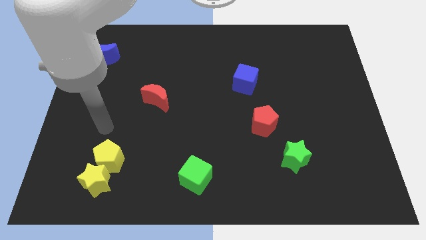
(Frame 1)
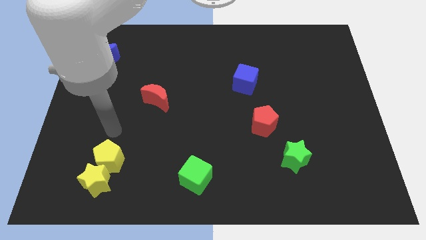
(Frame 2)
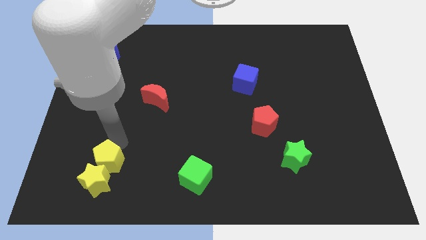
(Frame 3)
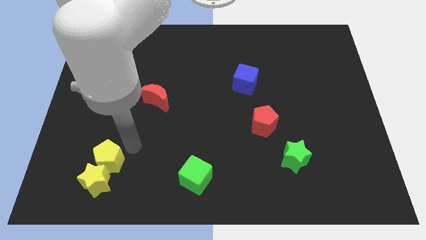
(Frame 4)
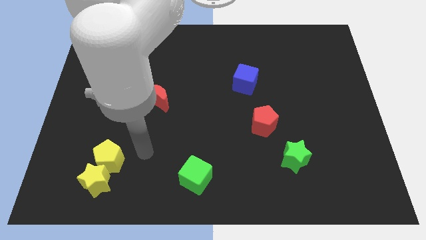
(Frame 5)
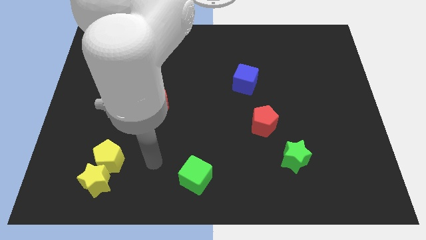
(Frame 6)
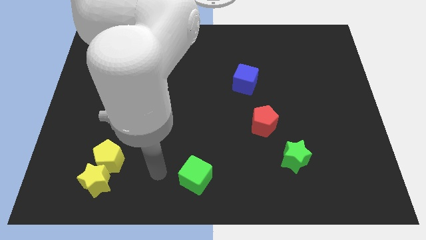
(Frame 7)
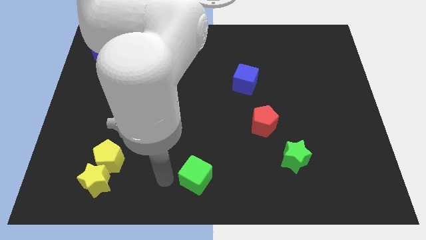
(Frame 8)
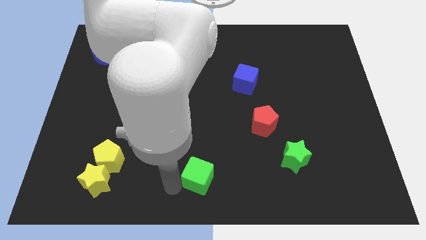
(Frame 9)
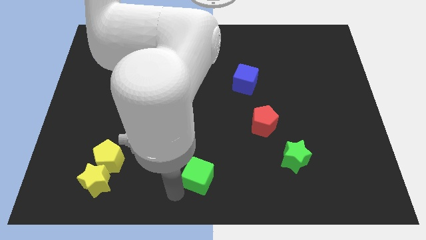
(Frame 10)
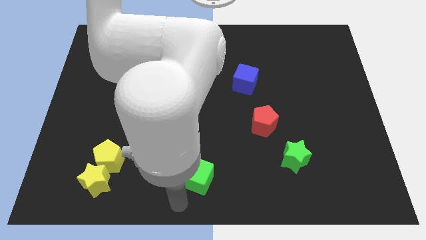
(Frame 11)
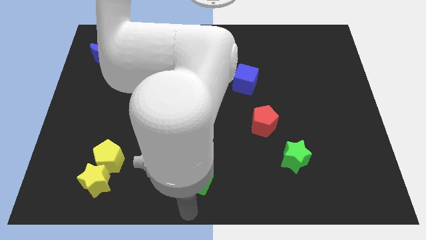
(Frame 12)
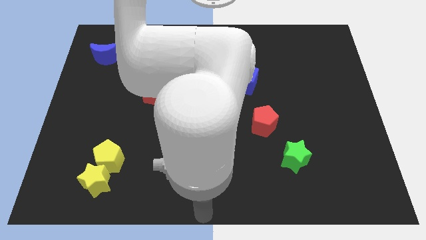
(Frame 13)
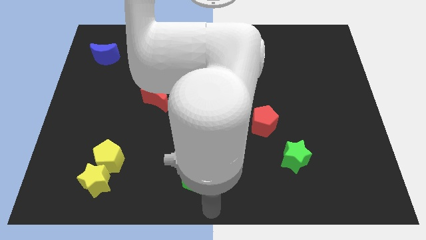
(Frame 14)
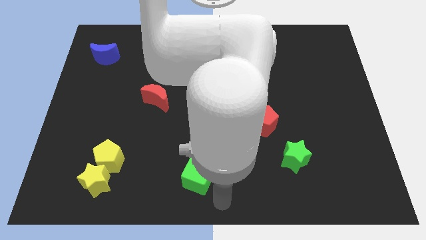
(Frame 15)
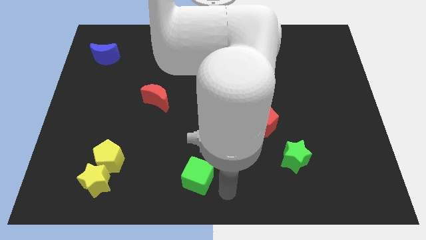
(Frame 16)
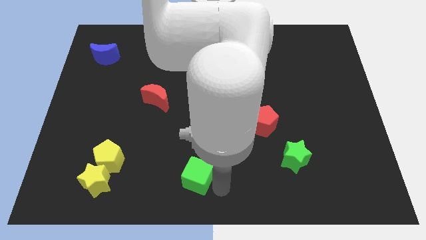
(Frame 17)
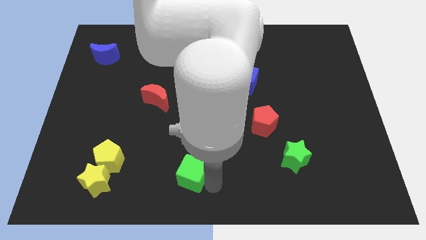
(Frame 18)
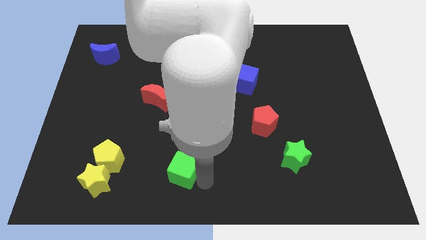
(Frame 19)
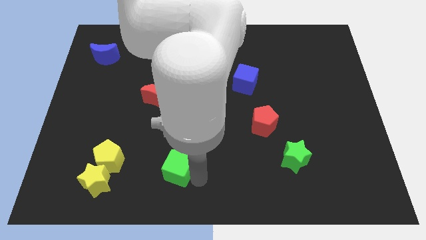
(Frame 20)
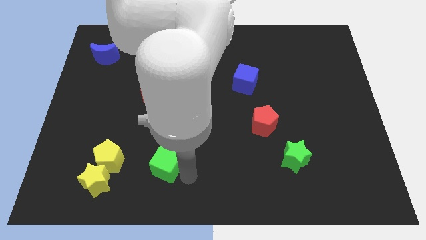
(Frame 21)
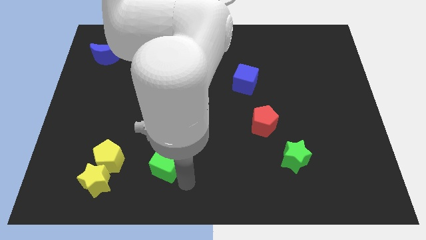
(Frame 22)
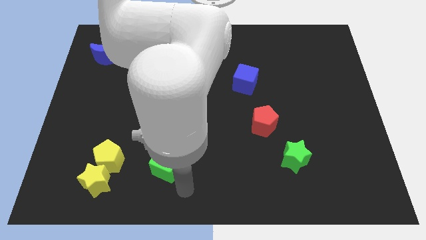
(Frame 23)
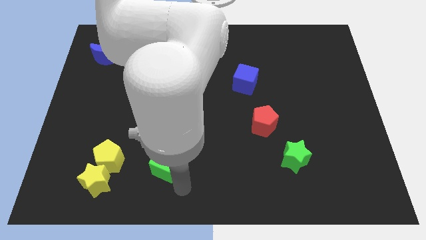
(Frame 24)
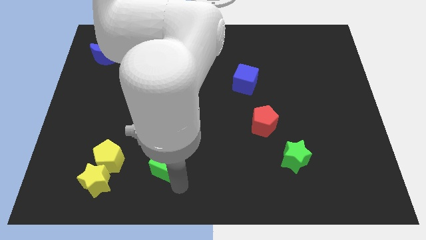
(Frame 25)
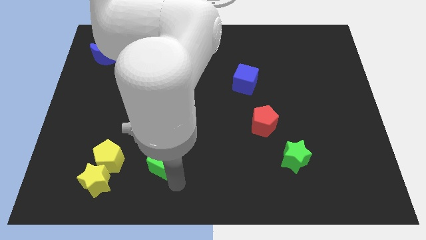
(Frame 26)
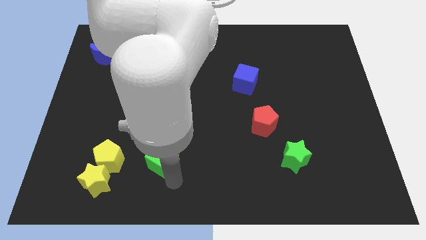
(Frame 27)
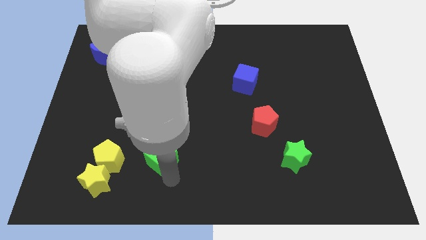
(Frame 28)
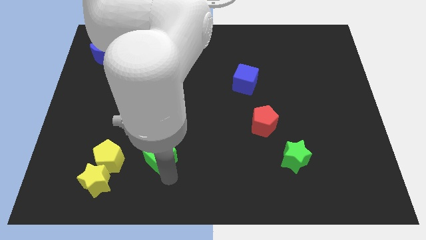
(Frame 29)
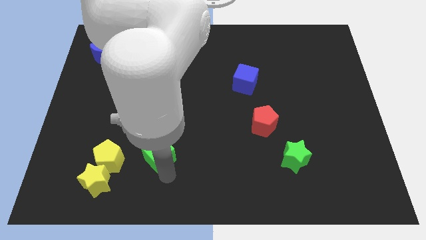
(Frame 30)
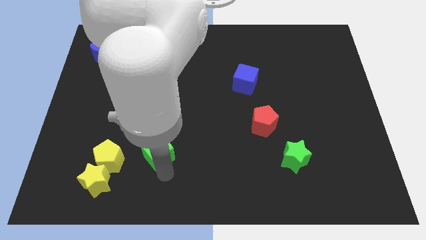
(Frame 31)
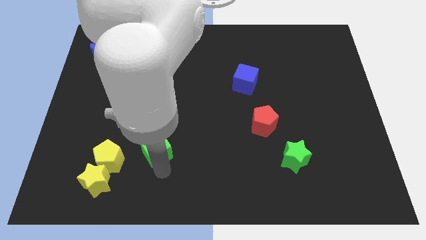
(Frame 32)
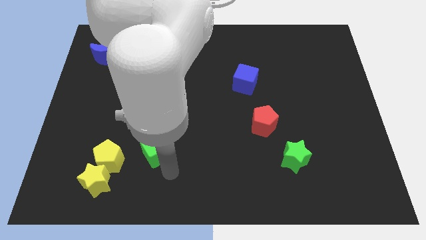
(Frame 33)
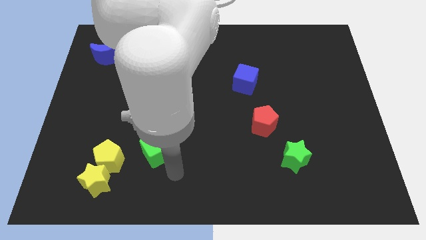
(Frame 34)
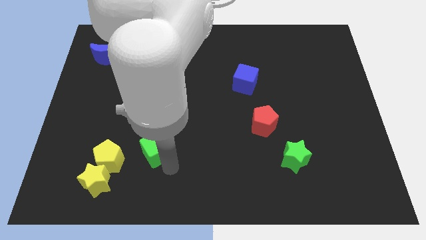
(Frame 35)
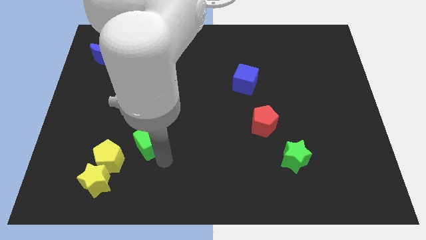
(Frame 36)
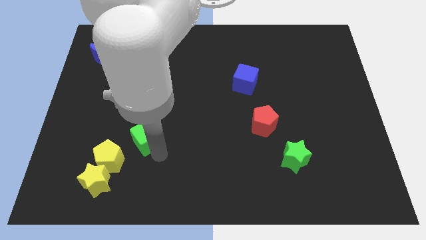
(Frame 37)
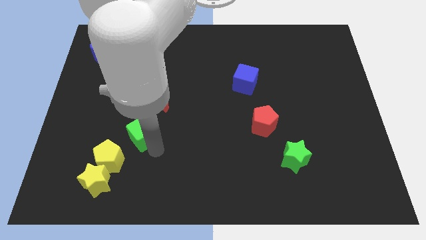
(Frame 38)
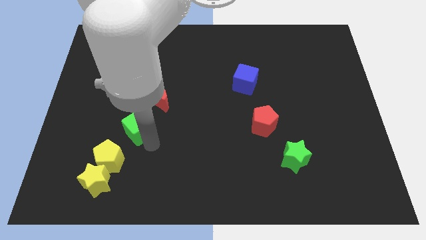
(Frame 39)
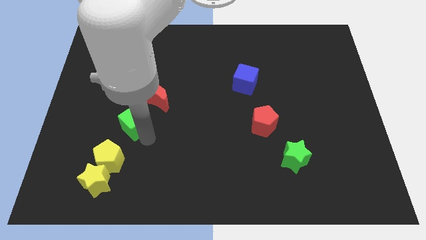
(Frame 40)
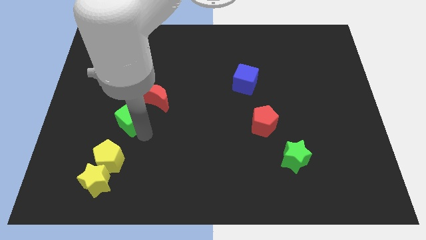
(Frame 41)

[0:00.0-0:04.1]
push the green cube diagonally up and left

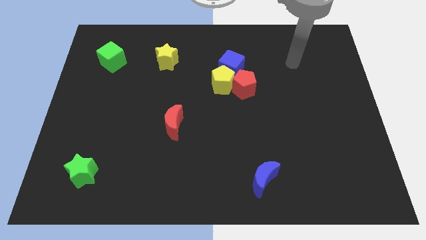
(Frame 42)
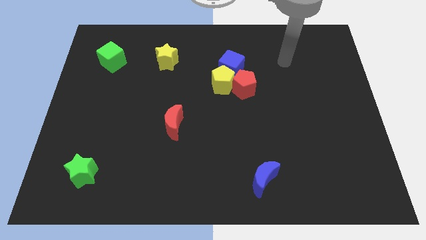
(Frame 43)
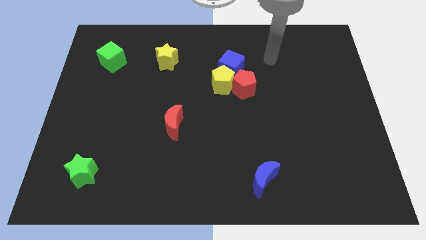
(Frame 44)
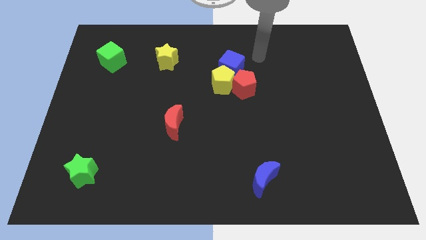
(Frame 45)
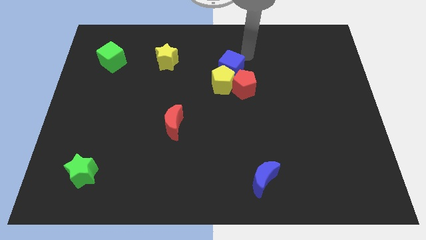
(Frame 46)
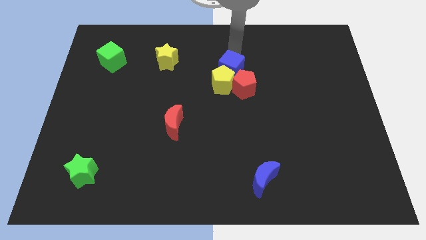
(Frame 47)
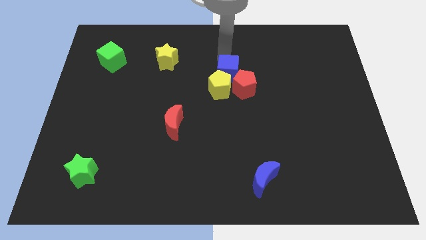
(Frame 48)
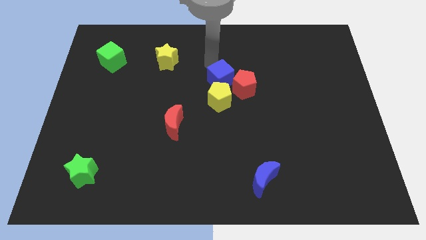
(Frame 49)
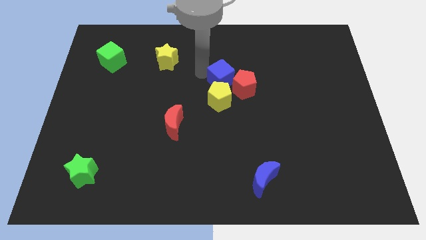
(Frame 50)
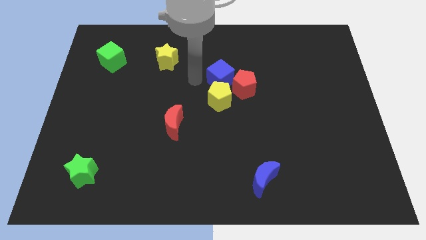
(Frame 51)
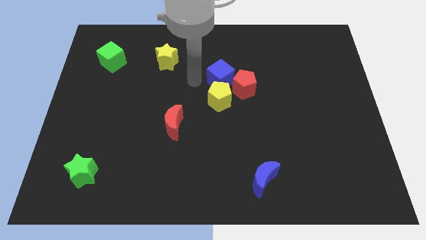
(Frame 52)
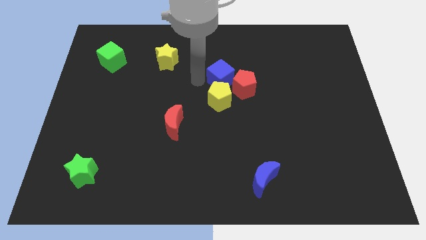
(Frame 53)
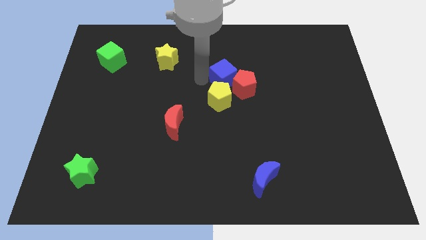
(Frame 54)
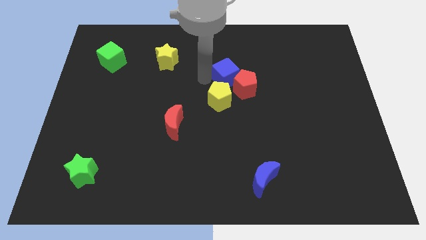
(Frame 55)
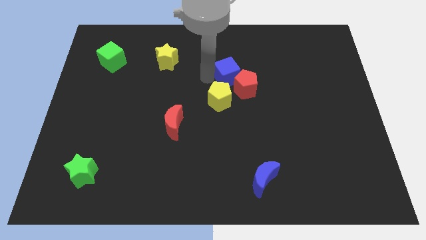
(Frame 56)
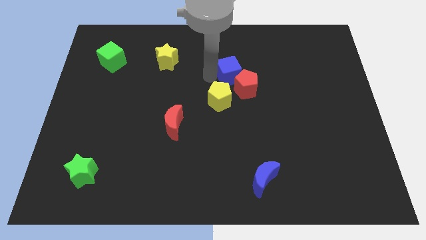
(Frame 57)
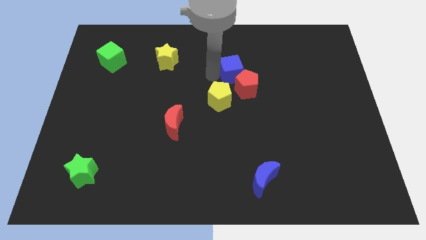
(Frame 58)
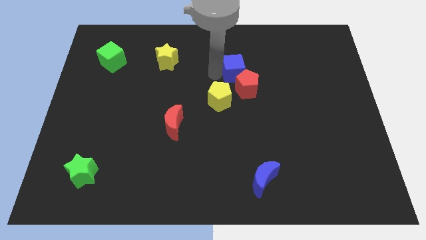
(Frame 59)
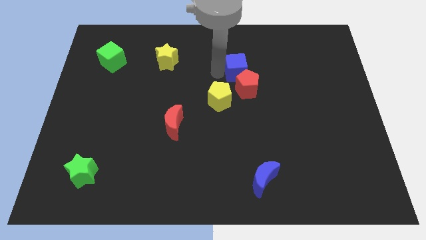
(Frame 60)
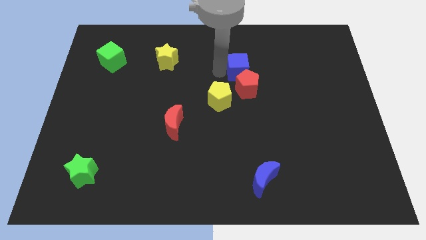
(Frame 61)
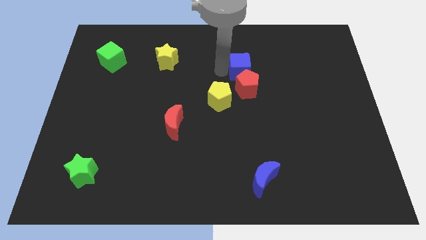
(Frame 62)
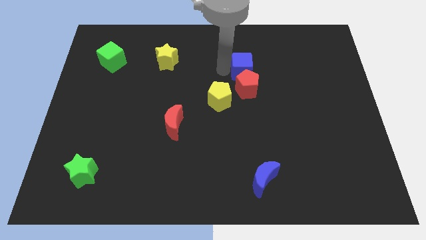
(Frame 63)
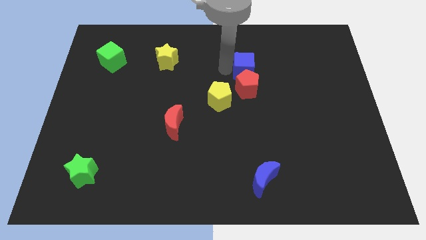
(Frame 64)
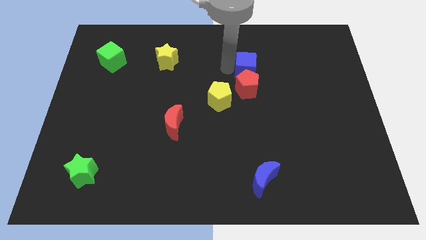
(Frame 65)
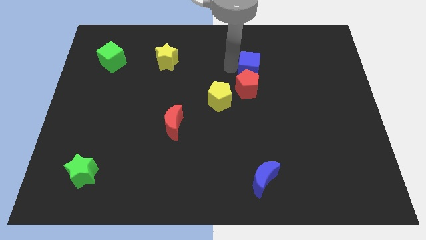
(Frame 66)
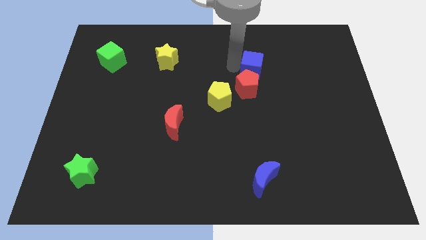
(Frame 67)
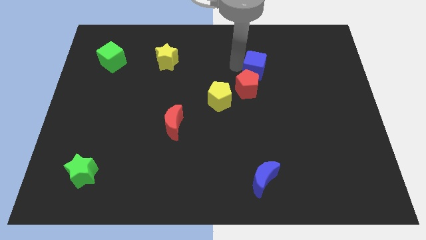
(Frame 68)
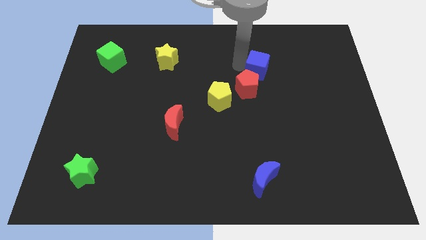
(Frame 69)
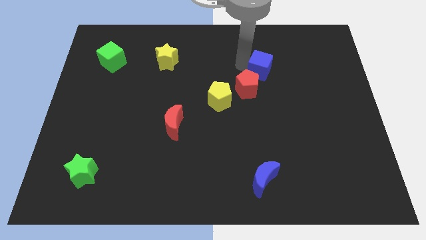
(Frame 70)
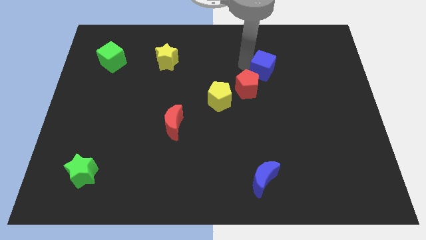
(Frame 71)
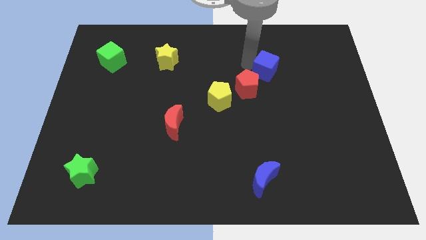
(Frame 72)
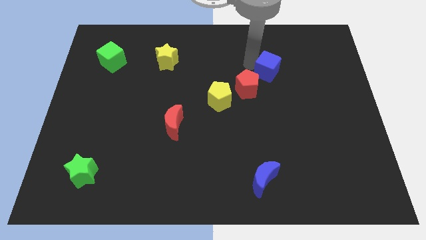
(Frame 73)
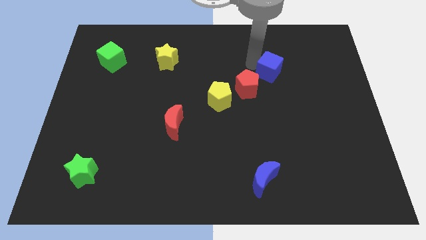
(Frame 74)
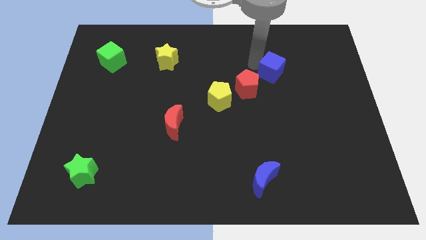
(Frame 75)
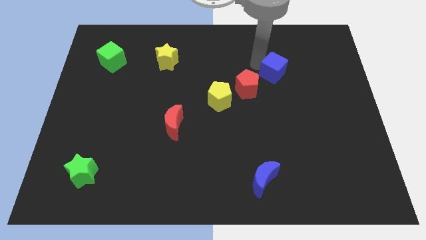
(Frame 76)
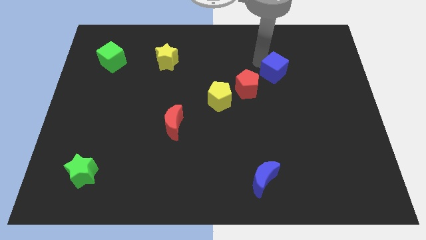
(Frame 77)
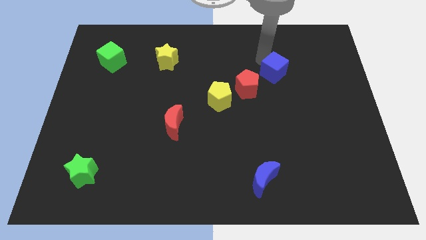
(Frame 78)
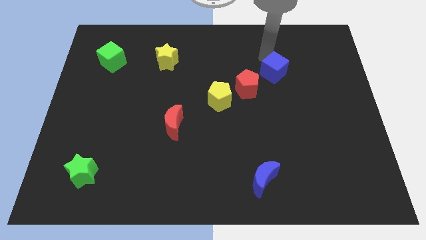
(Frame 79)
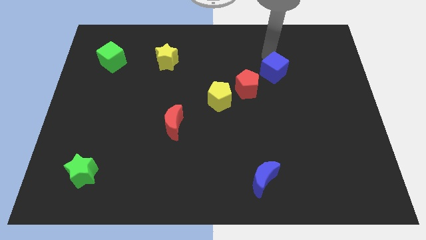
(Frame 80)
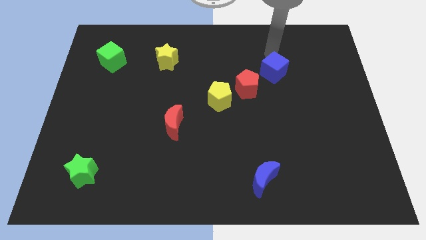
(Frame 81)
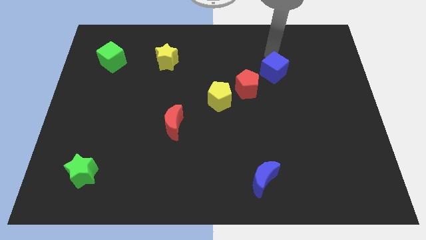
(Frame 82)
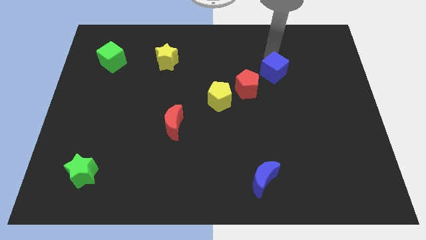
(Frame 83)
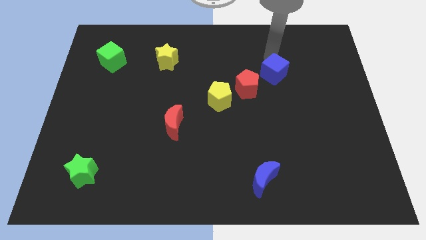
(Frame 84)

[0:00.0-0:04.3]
slightly slide the blue cube downwards and to the right diagonally
